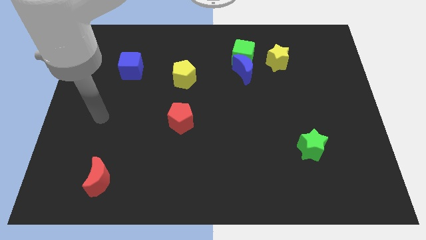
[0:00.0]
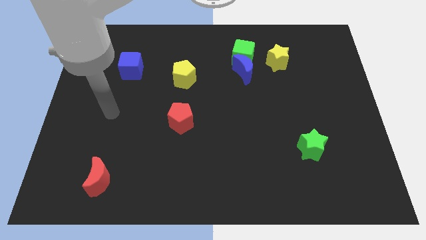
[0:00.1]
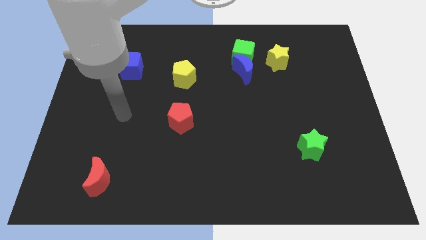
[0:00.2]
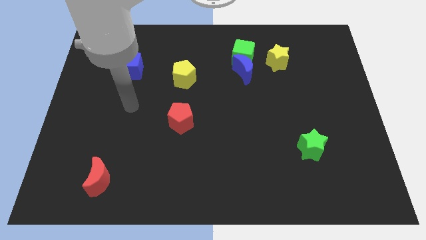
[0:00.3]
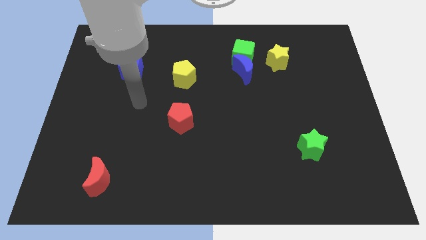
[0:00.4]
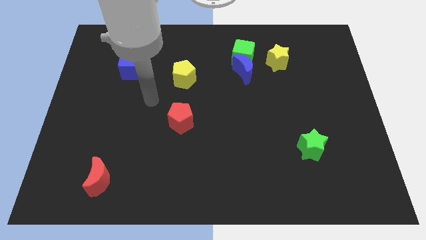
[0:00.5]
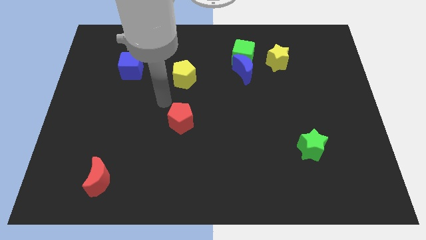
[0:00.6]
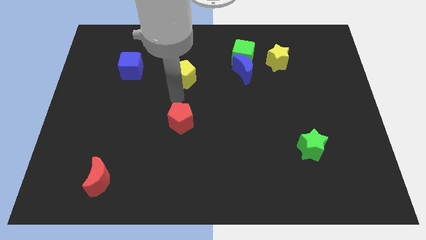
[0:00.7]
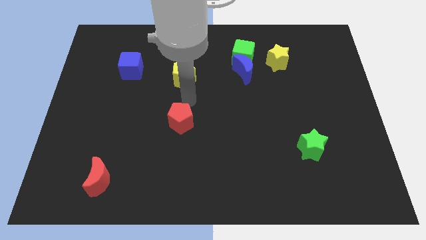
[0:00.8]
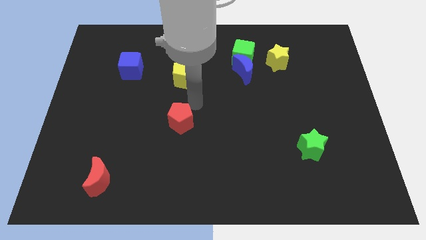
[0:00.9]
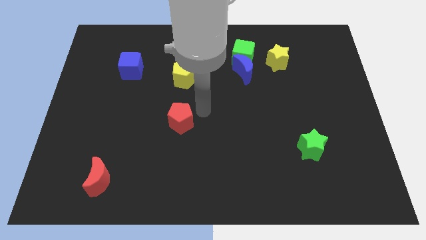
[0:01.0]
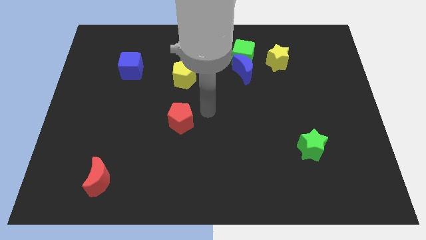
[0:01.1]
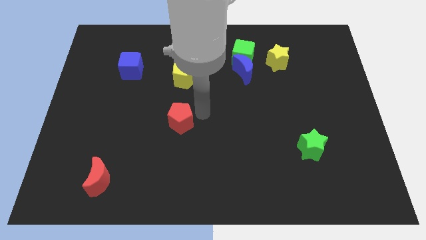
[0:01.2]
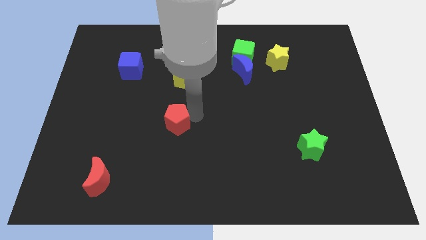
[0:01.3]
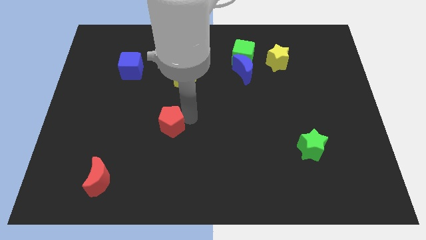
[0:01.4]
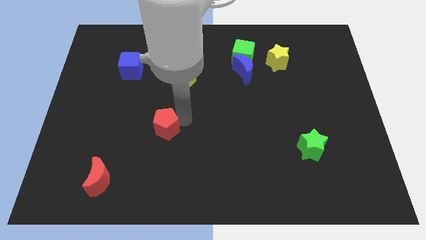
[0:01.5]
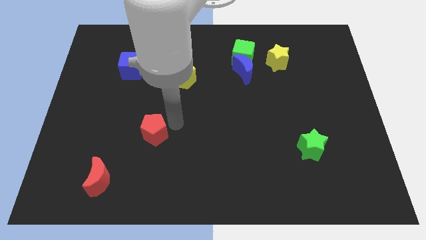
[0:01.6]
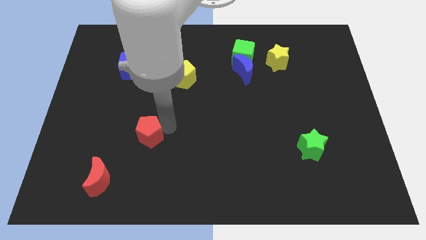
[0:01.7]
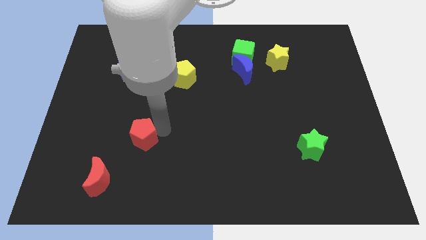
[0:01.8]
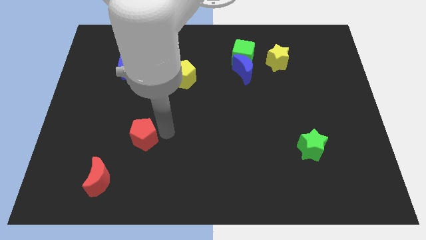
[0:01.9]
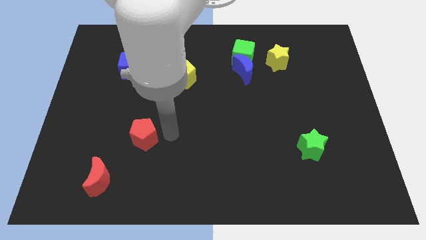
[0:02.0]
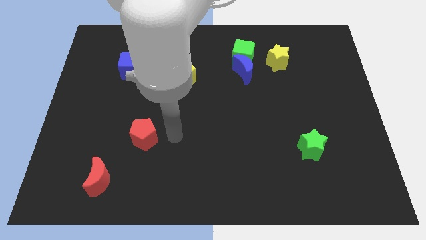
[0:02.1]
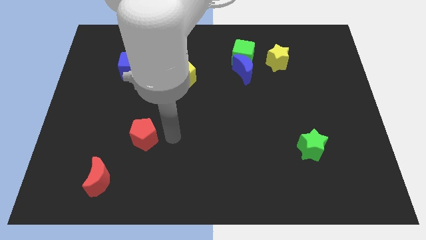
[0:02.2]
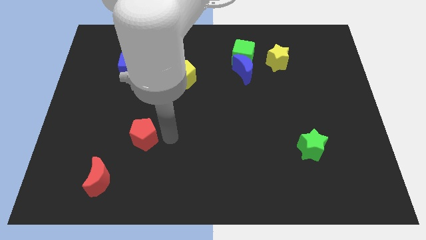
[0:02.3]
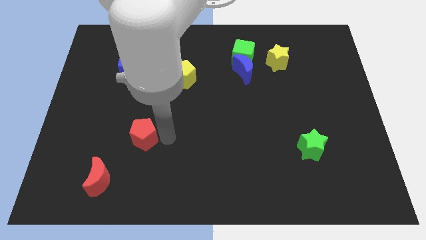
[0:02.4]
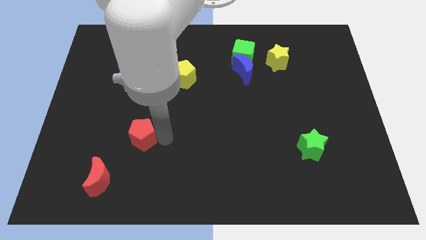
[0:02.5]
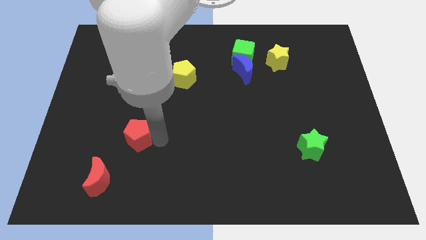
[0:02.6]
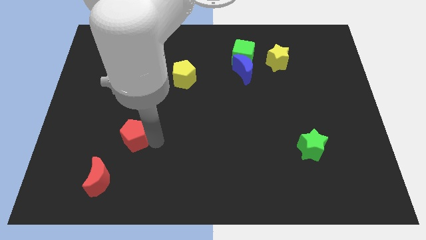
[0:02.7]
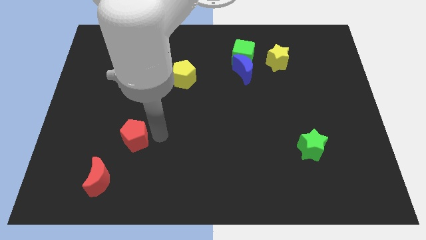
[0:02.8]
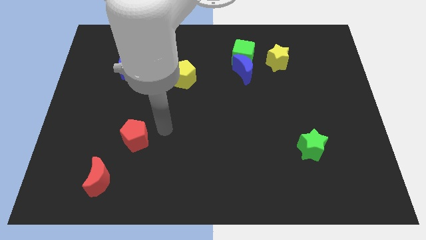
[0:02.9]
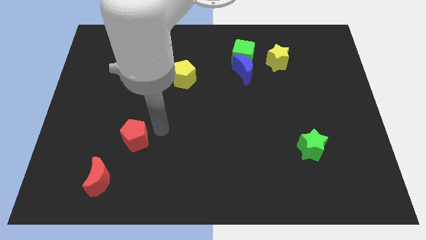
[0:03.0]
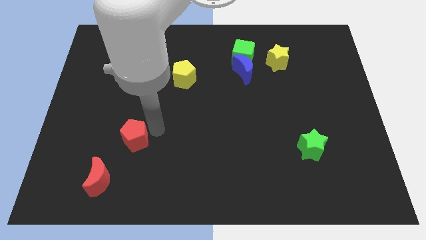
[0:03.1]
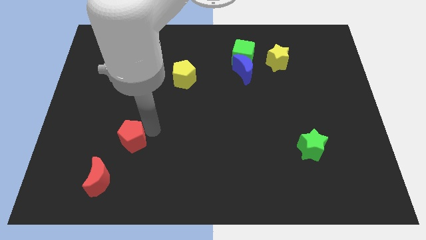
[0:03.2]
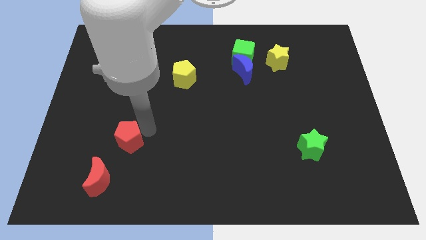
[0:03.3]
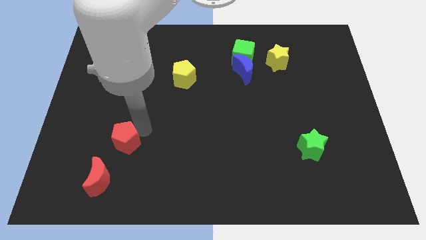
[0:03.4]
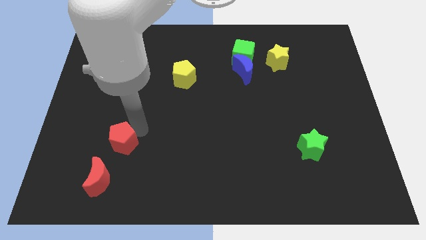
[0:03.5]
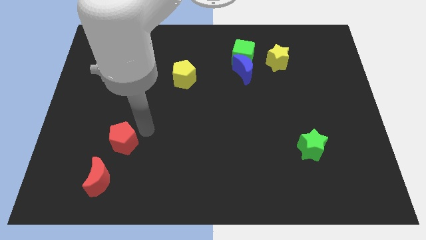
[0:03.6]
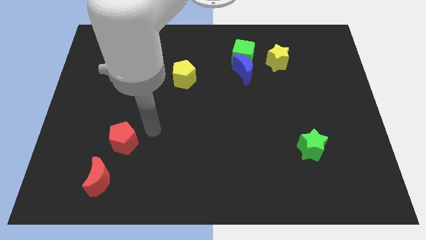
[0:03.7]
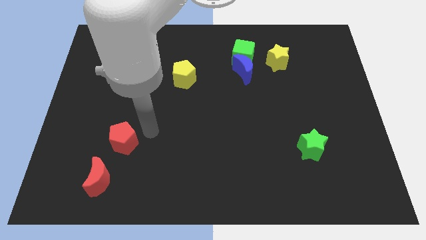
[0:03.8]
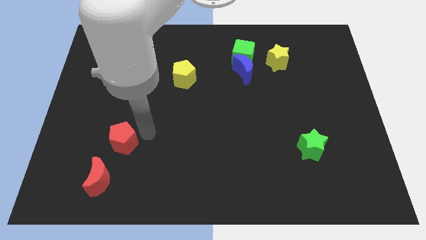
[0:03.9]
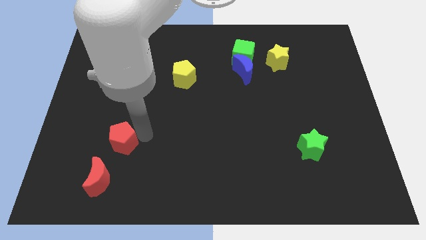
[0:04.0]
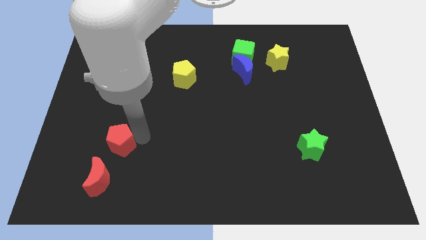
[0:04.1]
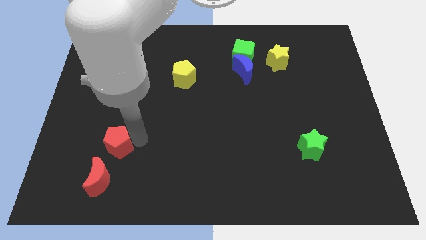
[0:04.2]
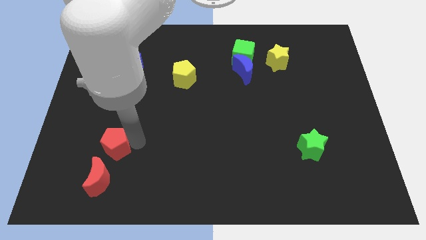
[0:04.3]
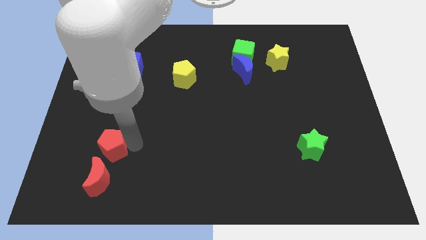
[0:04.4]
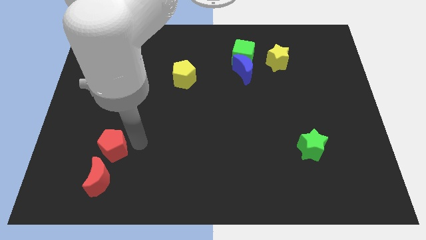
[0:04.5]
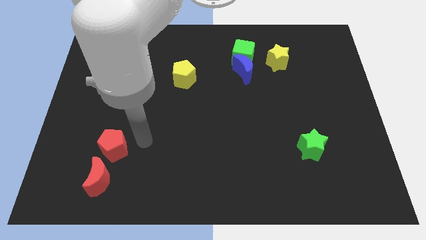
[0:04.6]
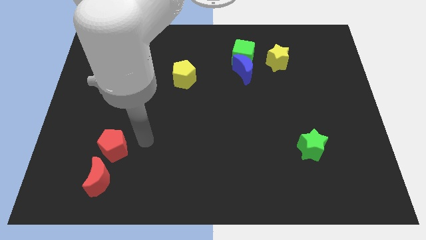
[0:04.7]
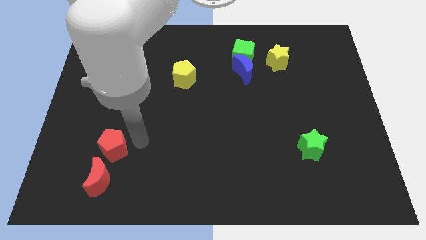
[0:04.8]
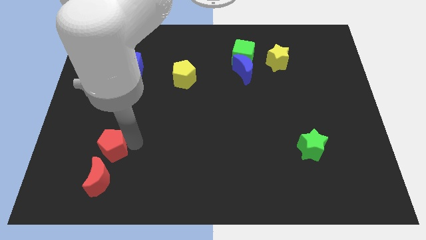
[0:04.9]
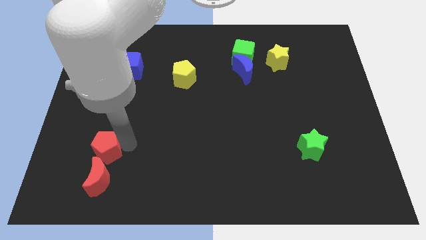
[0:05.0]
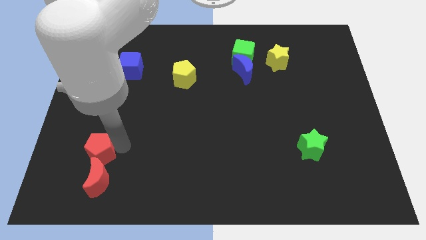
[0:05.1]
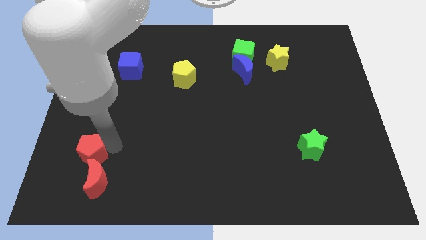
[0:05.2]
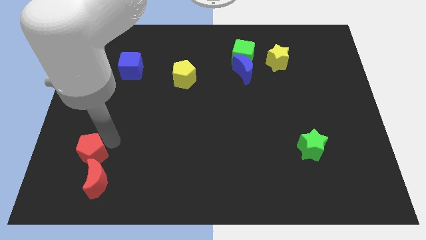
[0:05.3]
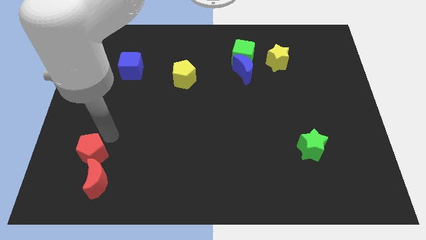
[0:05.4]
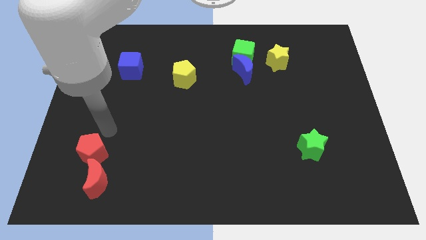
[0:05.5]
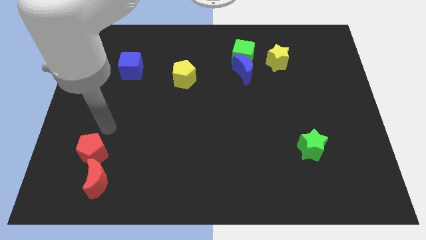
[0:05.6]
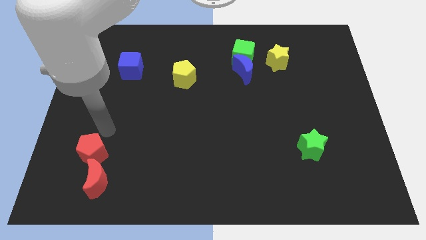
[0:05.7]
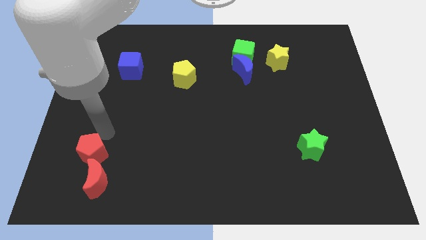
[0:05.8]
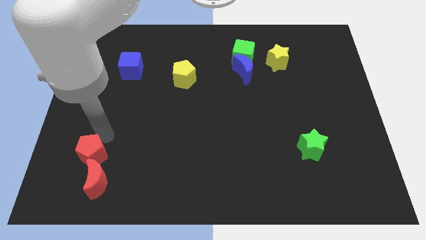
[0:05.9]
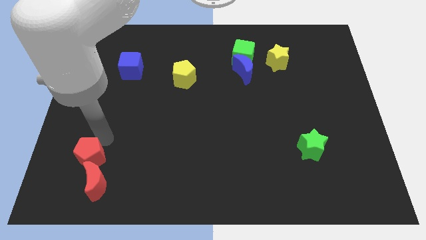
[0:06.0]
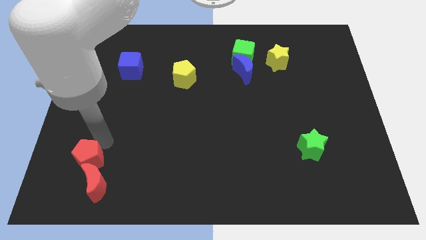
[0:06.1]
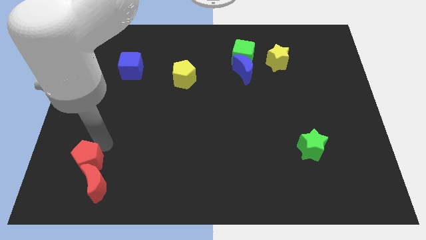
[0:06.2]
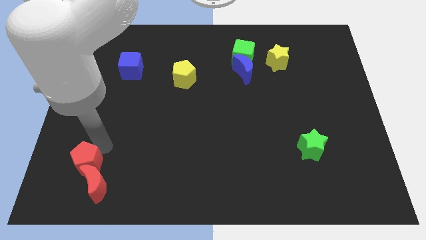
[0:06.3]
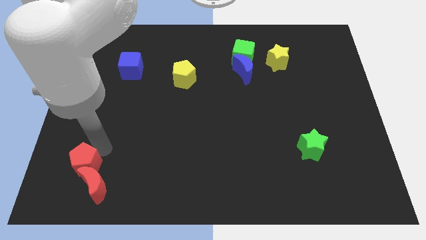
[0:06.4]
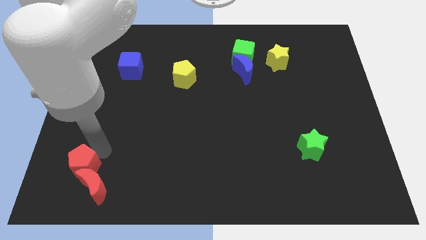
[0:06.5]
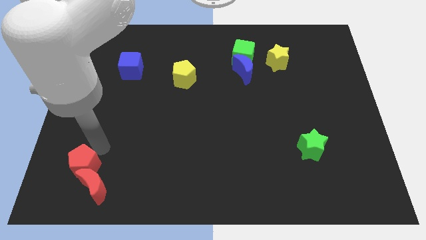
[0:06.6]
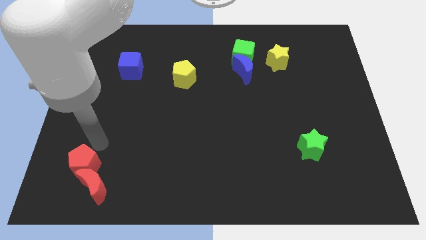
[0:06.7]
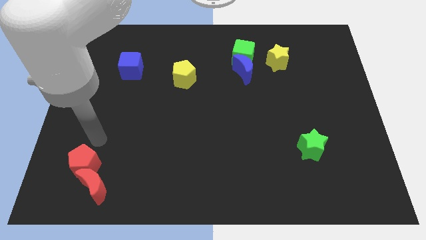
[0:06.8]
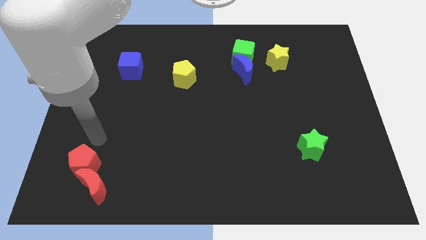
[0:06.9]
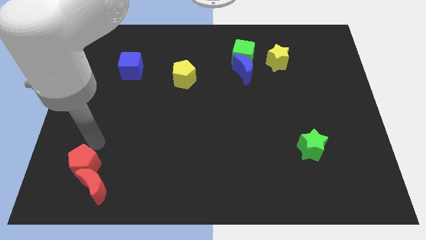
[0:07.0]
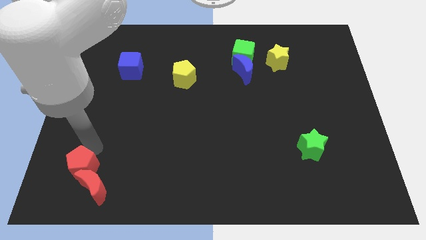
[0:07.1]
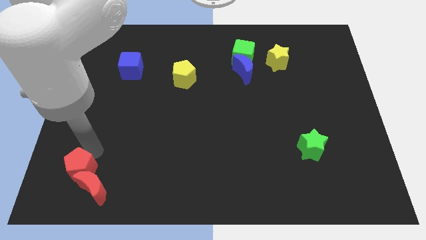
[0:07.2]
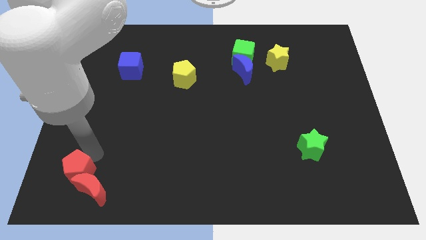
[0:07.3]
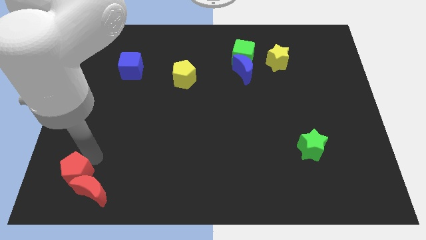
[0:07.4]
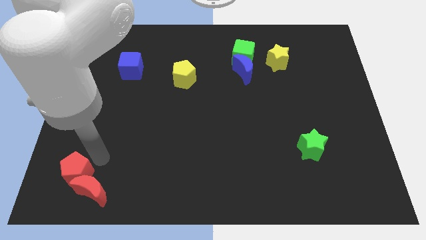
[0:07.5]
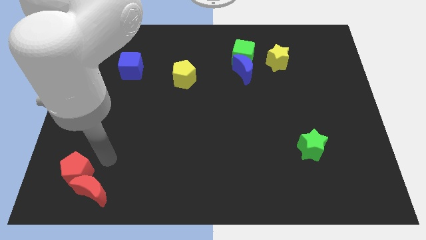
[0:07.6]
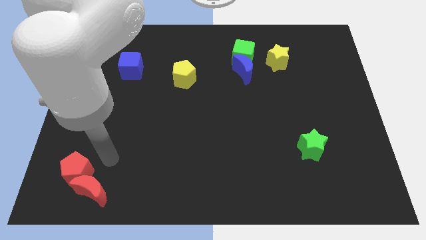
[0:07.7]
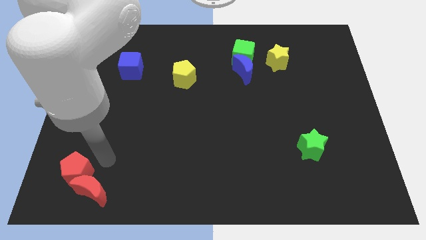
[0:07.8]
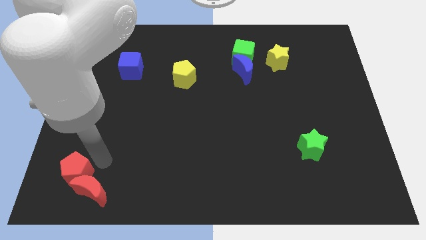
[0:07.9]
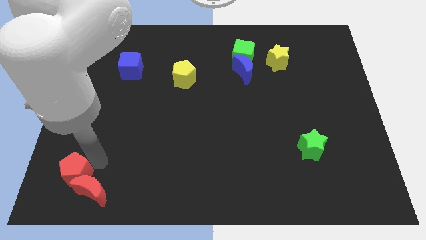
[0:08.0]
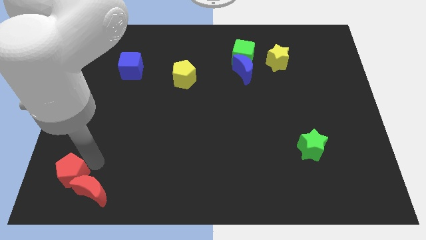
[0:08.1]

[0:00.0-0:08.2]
slide the red pentagon to the bottom left corner
